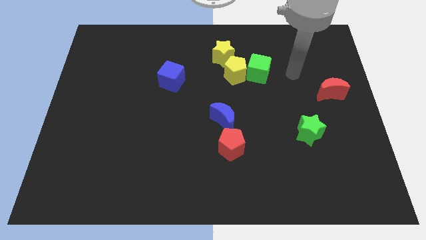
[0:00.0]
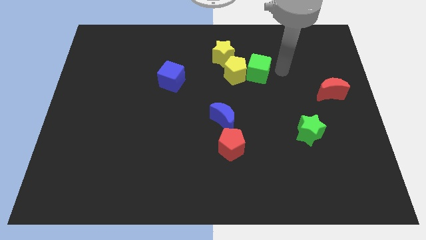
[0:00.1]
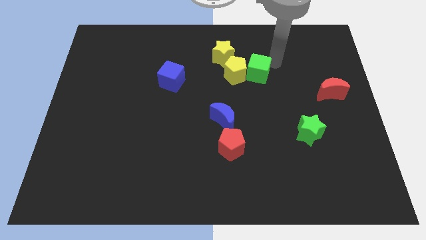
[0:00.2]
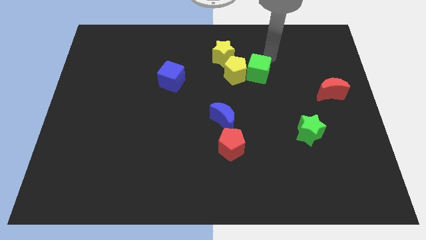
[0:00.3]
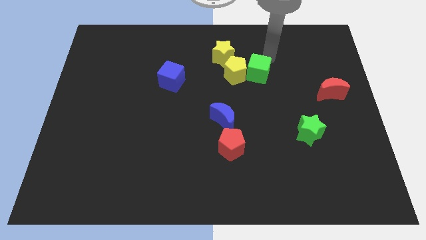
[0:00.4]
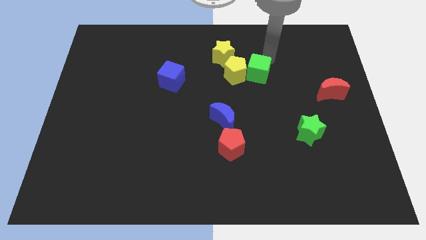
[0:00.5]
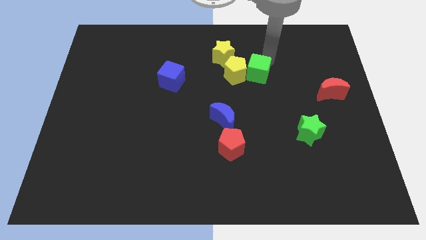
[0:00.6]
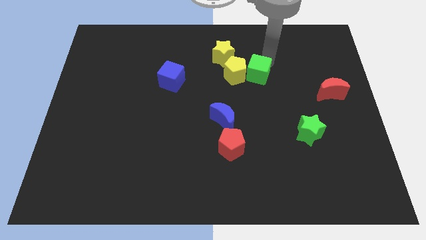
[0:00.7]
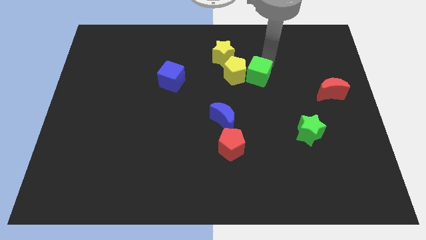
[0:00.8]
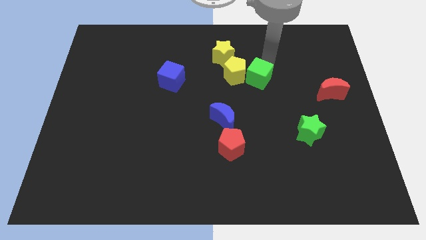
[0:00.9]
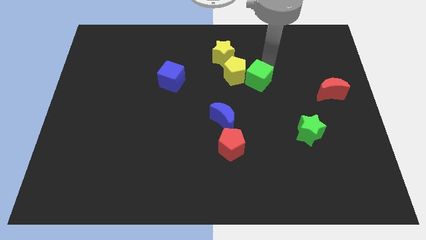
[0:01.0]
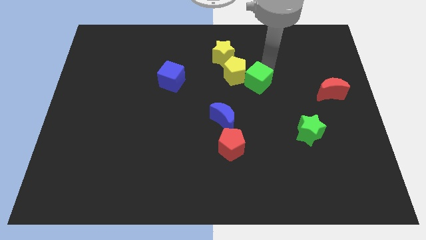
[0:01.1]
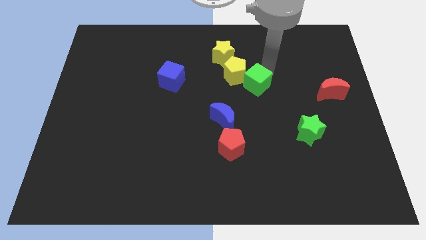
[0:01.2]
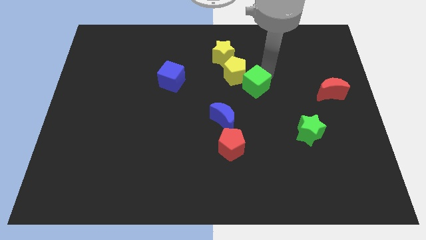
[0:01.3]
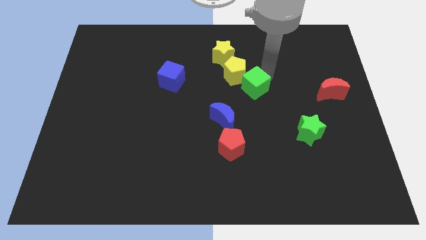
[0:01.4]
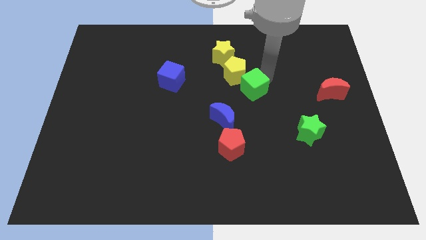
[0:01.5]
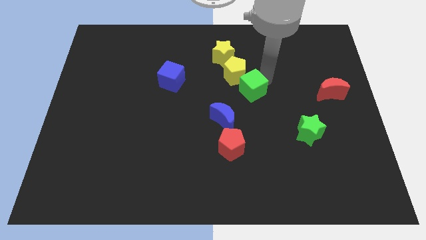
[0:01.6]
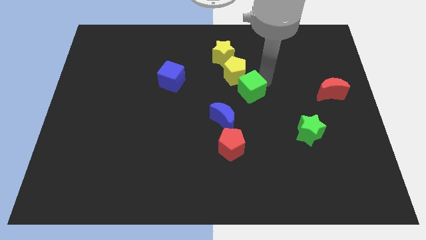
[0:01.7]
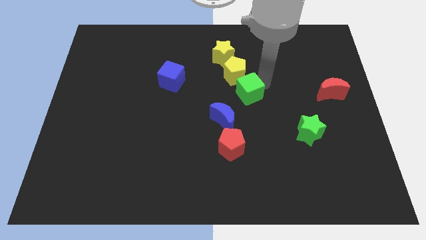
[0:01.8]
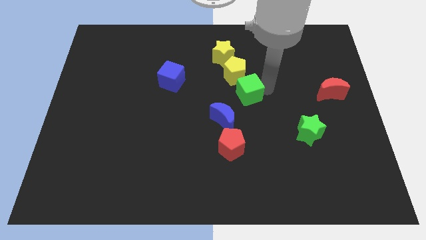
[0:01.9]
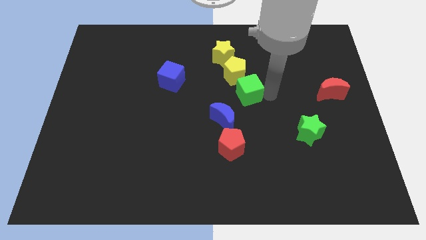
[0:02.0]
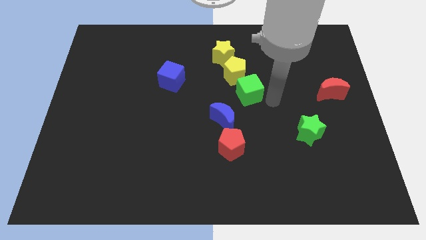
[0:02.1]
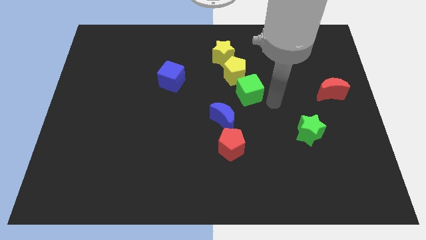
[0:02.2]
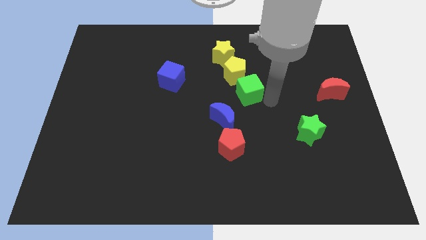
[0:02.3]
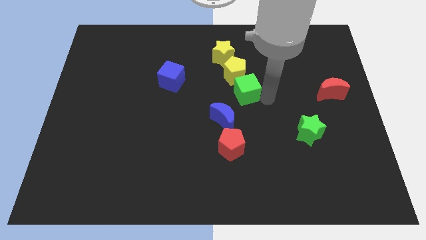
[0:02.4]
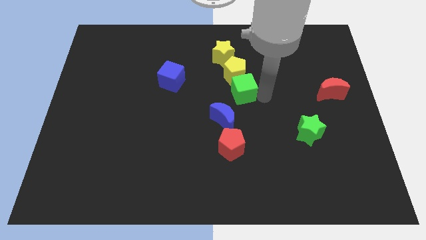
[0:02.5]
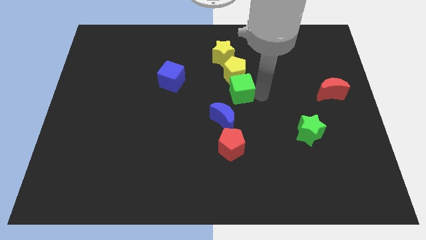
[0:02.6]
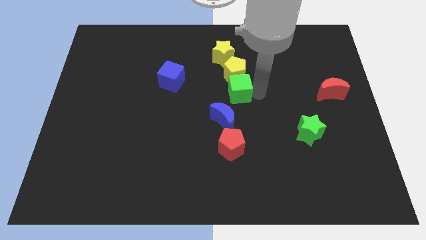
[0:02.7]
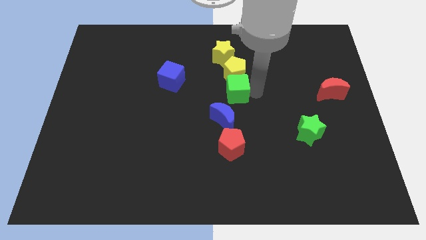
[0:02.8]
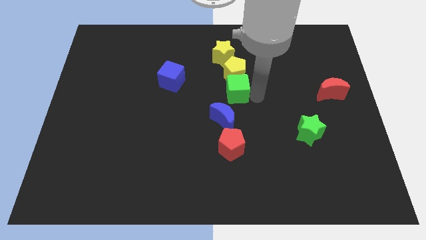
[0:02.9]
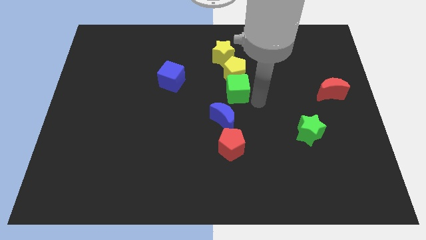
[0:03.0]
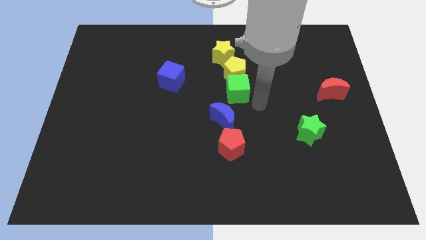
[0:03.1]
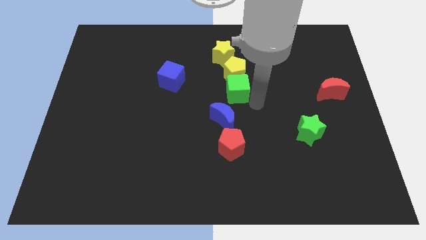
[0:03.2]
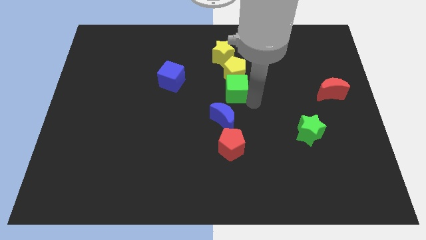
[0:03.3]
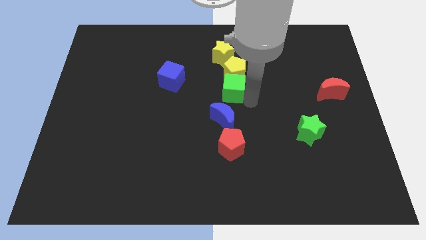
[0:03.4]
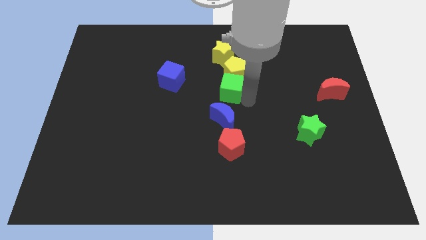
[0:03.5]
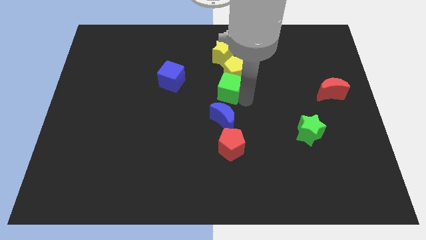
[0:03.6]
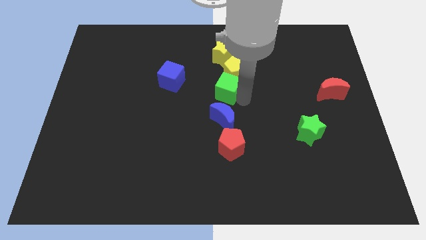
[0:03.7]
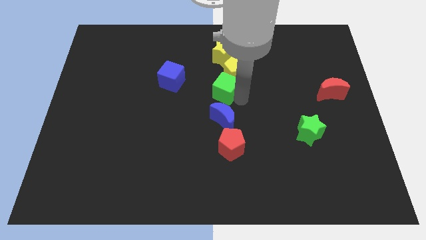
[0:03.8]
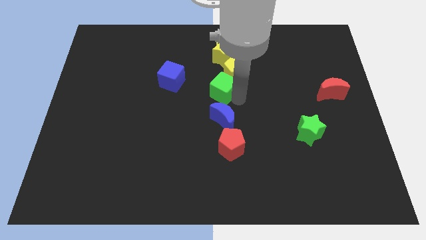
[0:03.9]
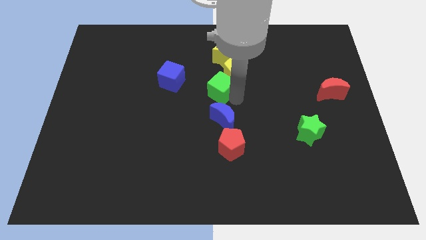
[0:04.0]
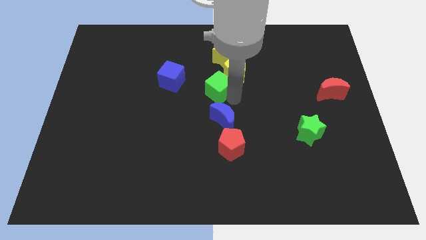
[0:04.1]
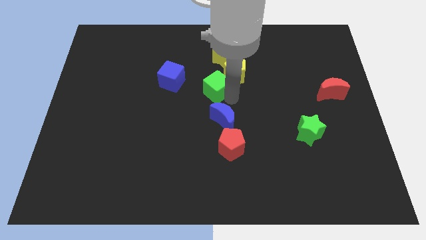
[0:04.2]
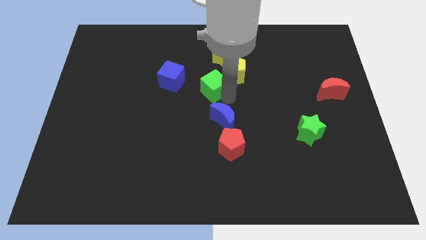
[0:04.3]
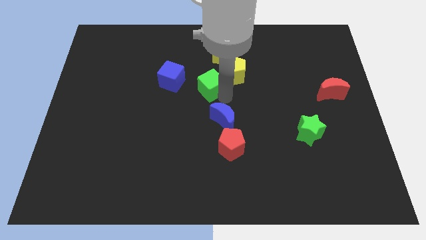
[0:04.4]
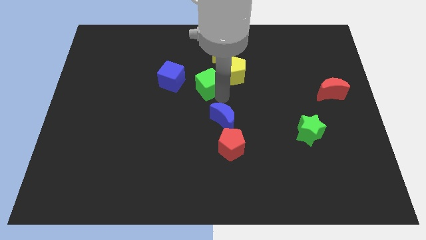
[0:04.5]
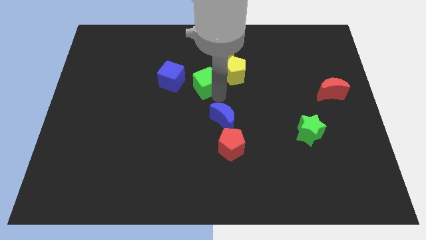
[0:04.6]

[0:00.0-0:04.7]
move the green cube diagonally down and to the left of the yellow star

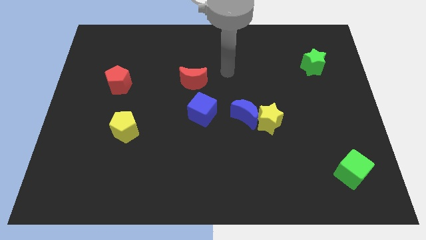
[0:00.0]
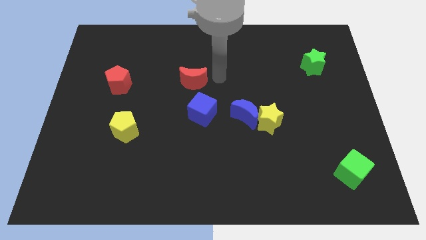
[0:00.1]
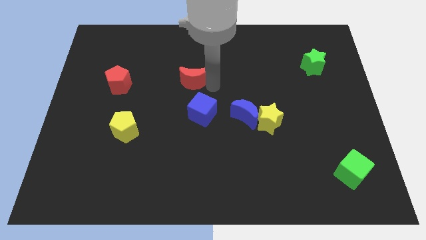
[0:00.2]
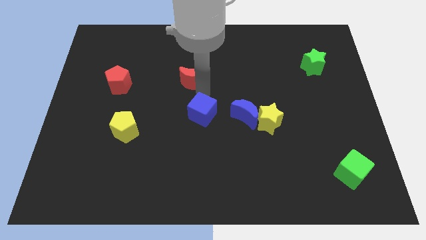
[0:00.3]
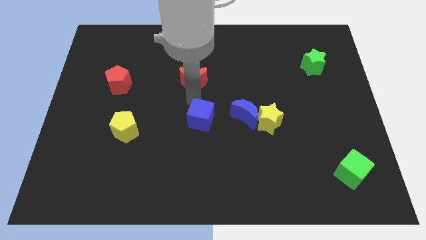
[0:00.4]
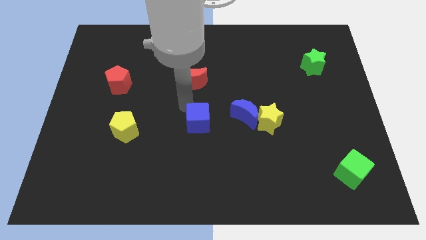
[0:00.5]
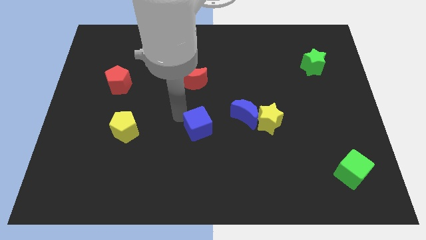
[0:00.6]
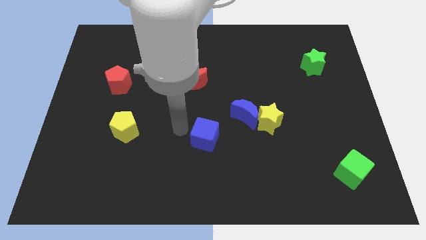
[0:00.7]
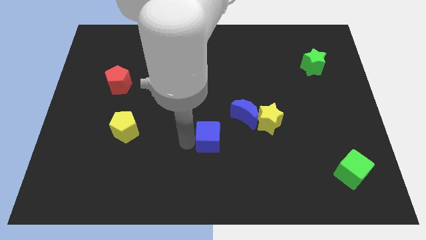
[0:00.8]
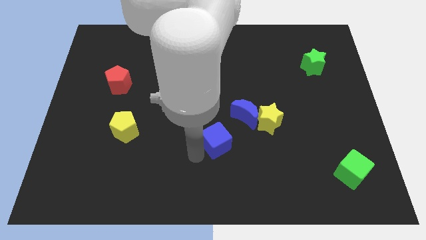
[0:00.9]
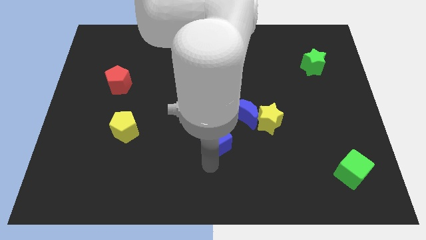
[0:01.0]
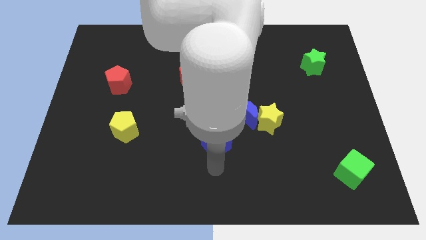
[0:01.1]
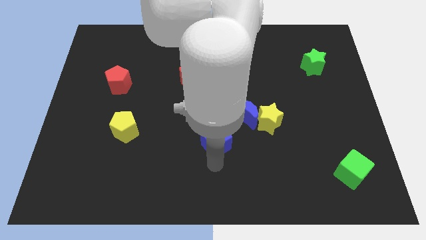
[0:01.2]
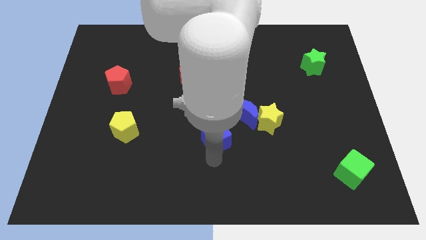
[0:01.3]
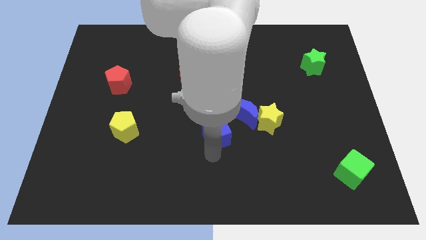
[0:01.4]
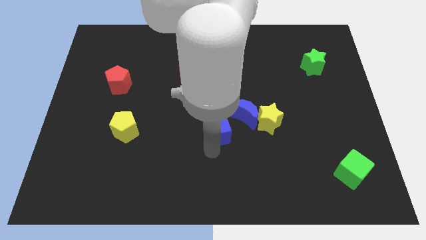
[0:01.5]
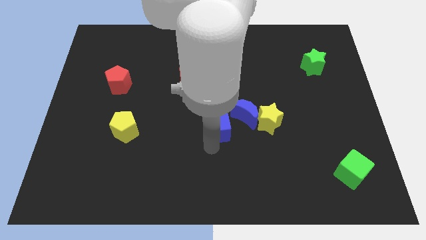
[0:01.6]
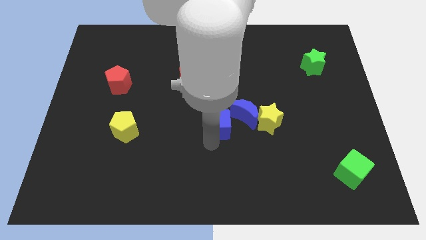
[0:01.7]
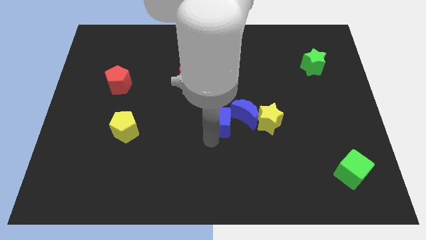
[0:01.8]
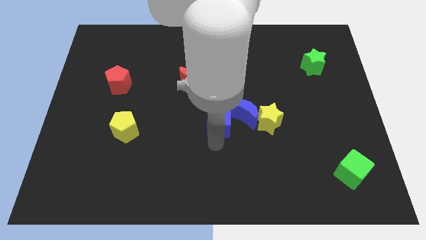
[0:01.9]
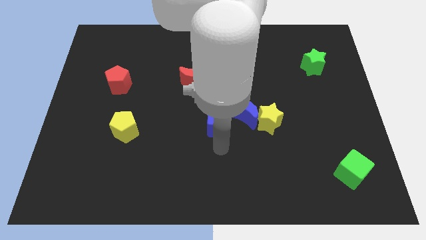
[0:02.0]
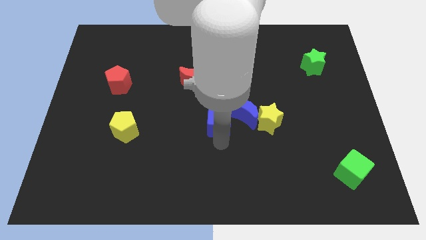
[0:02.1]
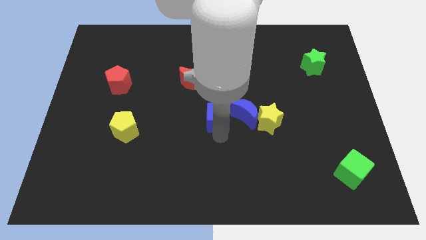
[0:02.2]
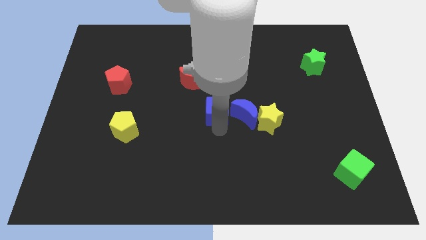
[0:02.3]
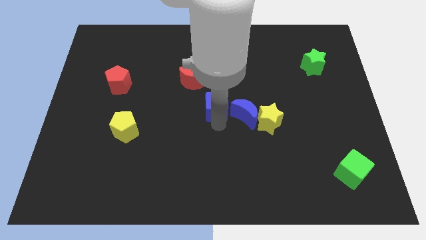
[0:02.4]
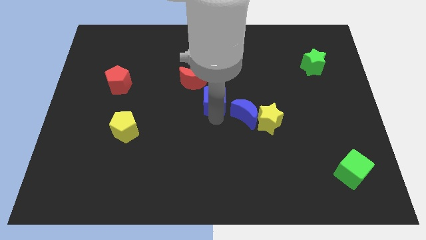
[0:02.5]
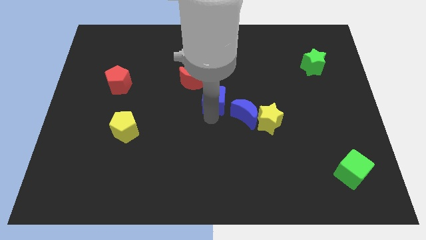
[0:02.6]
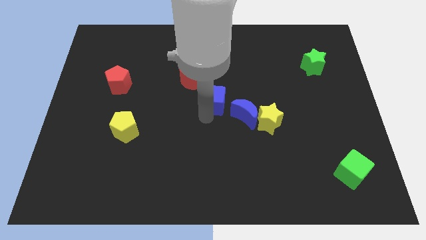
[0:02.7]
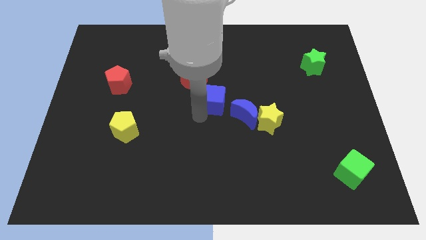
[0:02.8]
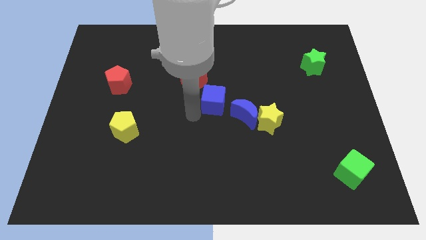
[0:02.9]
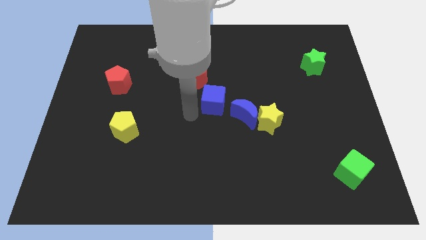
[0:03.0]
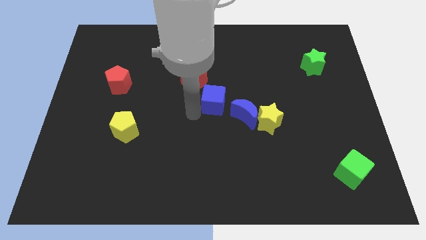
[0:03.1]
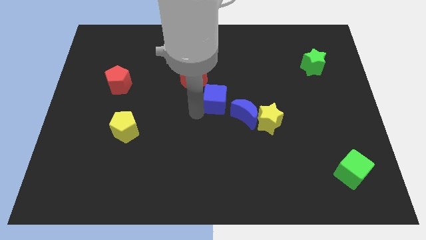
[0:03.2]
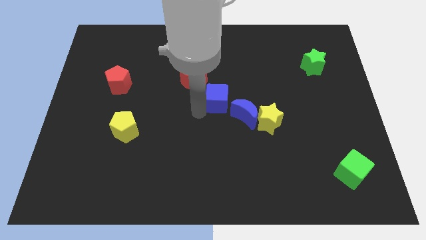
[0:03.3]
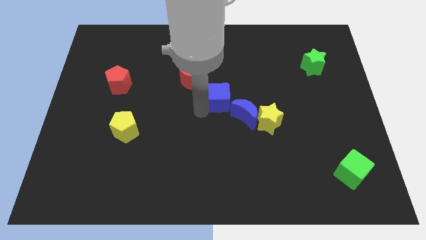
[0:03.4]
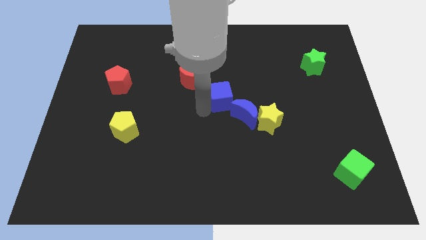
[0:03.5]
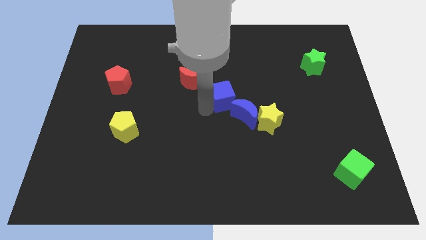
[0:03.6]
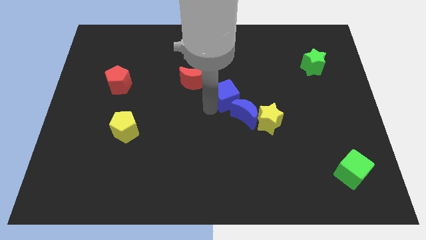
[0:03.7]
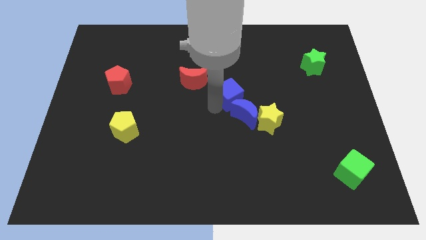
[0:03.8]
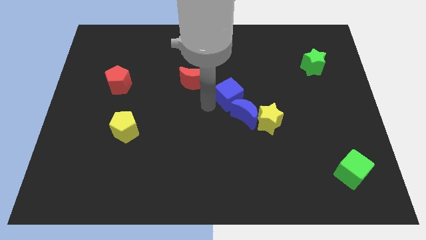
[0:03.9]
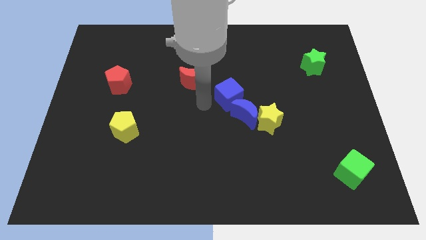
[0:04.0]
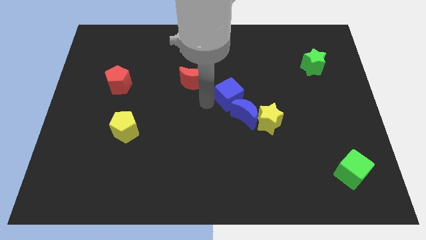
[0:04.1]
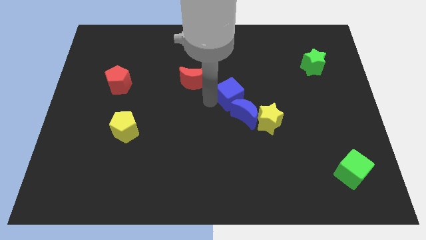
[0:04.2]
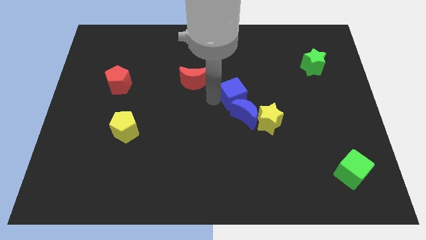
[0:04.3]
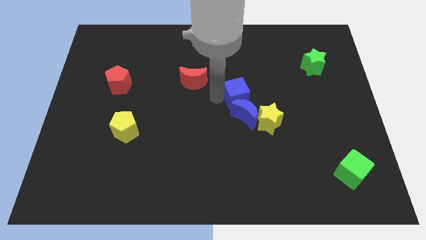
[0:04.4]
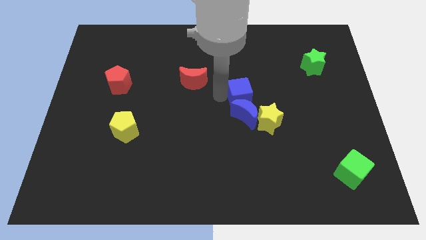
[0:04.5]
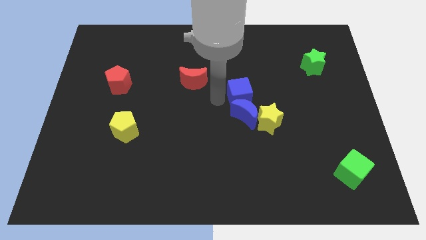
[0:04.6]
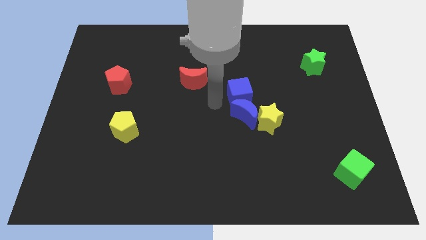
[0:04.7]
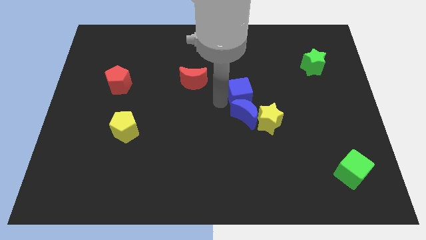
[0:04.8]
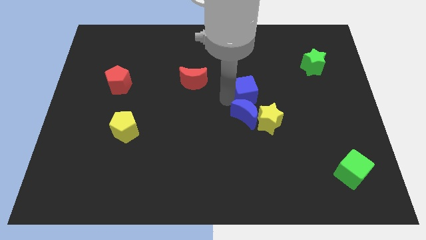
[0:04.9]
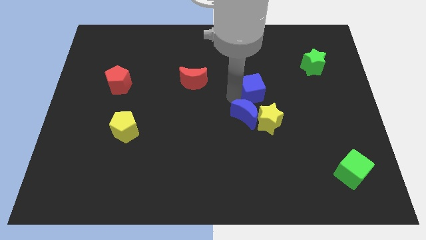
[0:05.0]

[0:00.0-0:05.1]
slide the blue cube to the top of the yellow star
